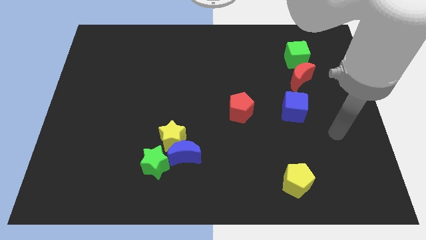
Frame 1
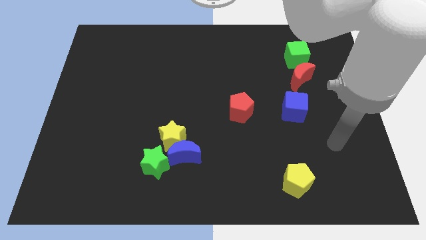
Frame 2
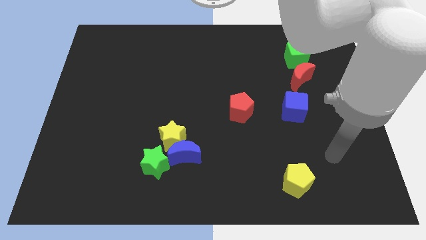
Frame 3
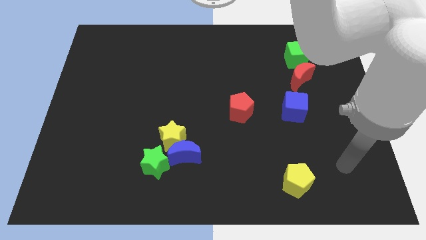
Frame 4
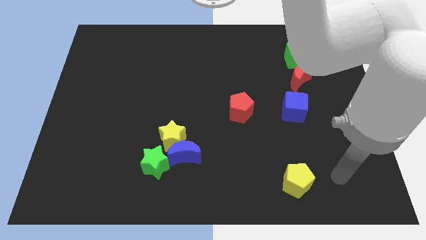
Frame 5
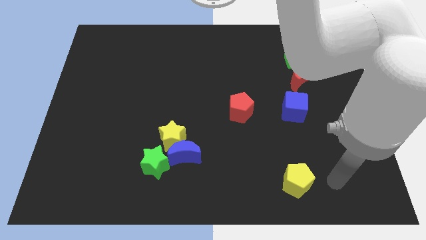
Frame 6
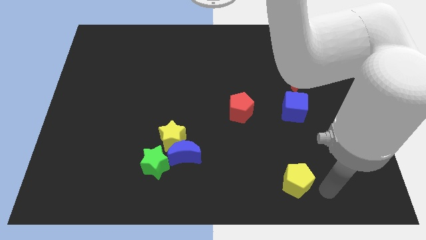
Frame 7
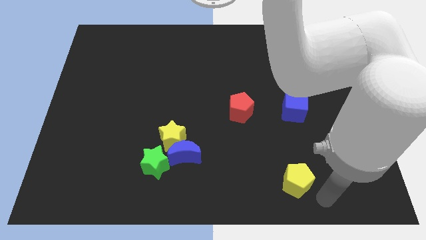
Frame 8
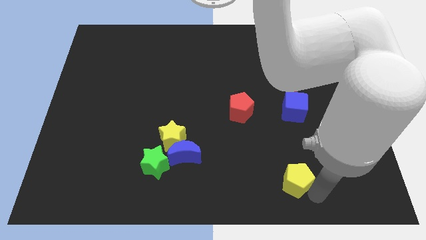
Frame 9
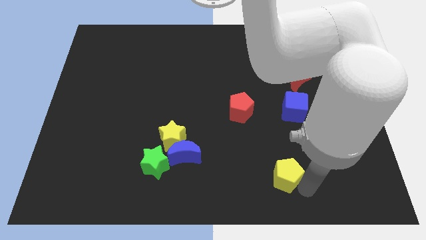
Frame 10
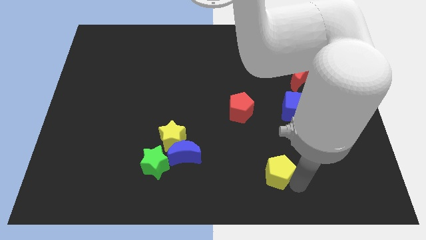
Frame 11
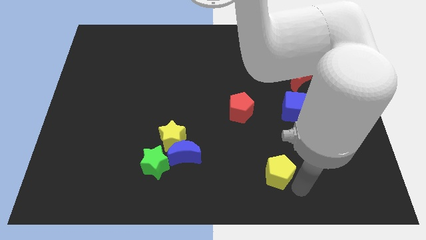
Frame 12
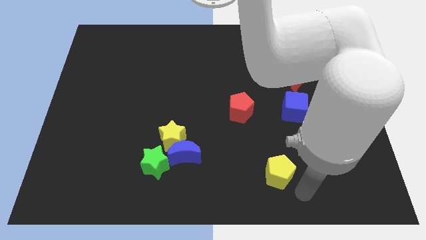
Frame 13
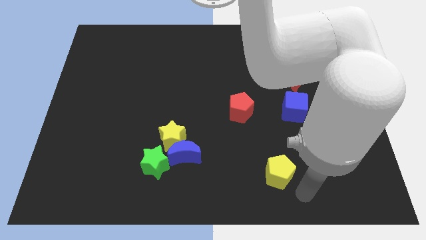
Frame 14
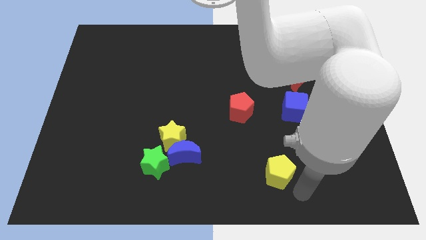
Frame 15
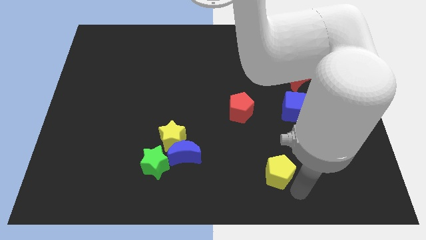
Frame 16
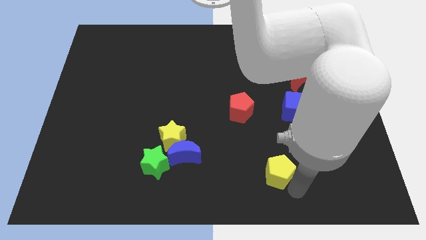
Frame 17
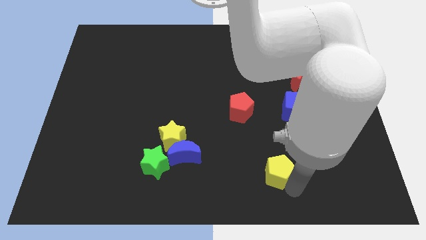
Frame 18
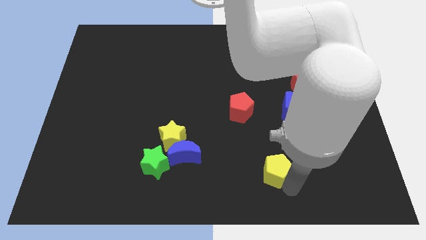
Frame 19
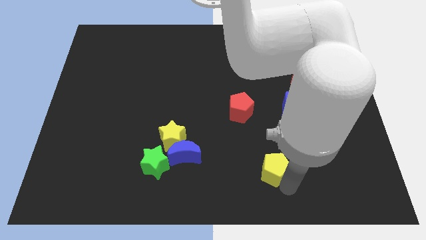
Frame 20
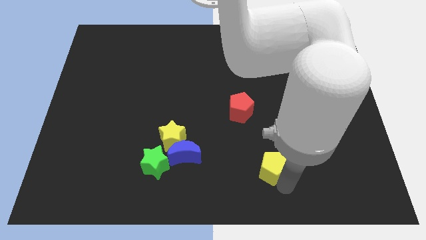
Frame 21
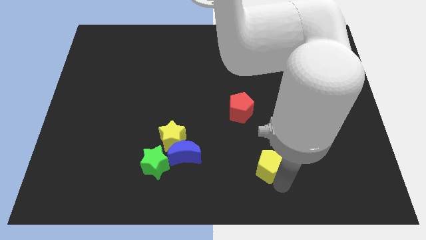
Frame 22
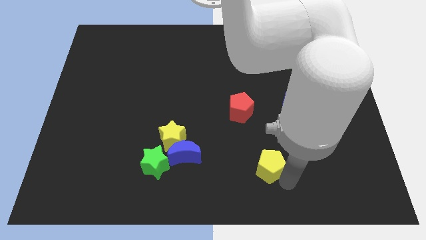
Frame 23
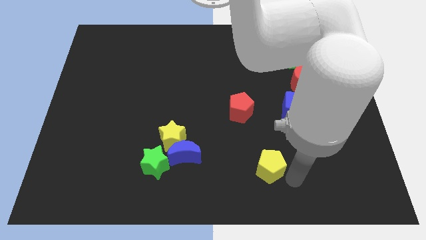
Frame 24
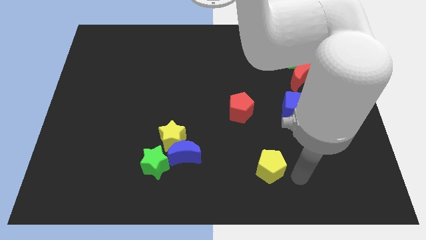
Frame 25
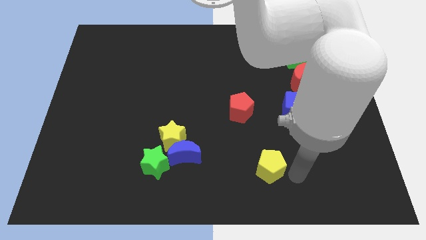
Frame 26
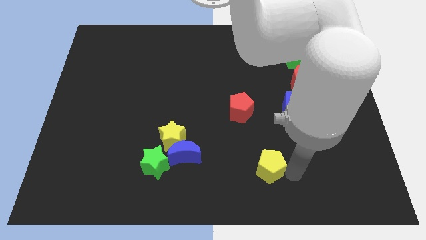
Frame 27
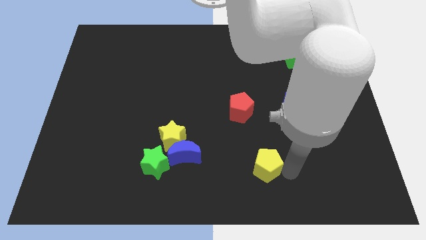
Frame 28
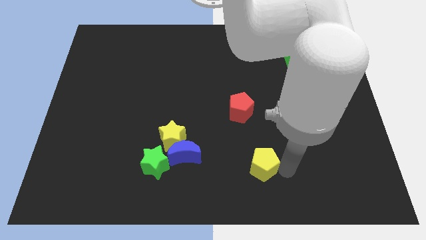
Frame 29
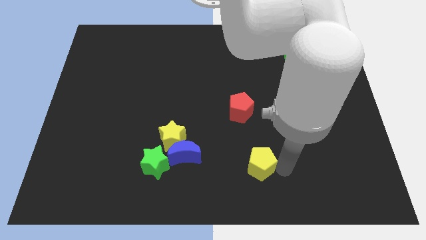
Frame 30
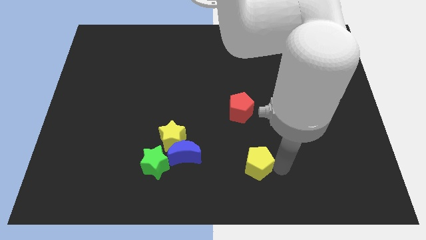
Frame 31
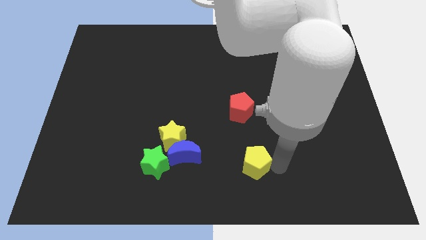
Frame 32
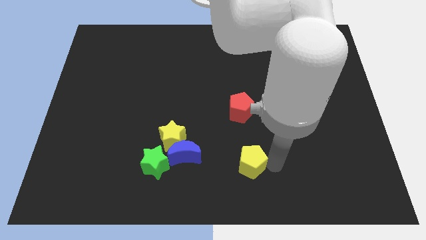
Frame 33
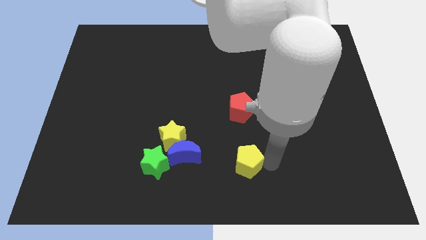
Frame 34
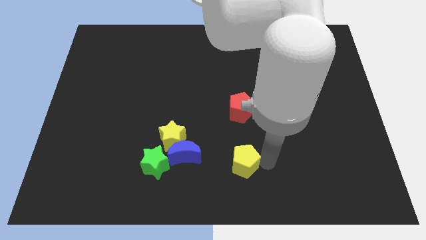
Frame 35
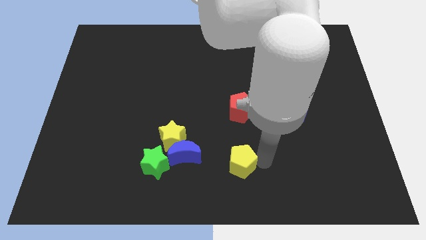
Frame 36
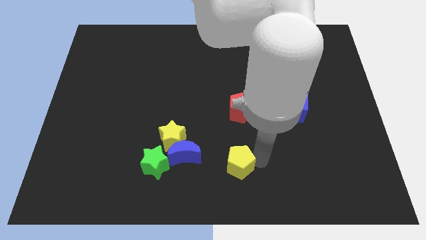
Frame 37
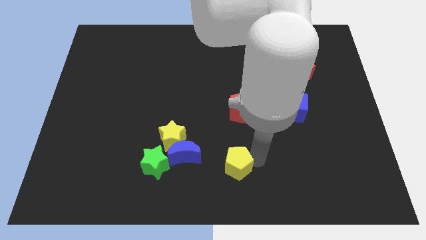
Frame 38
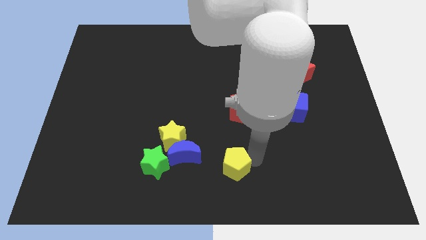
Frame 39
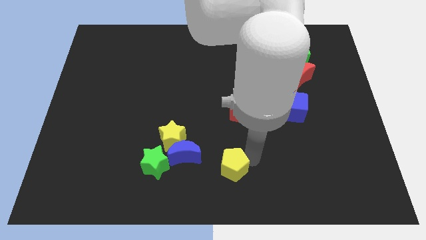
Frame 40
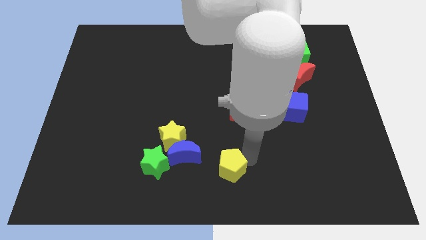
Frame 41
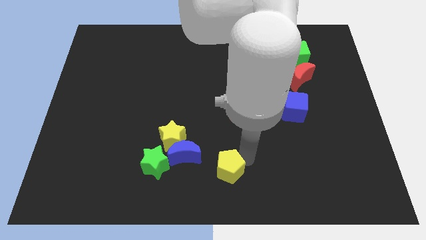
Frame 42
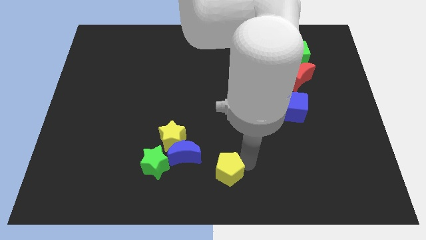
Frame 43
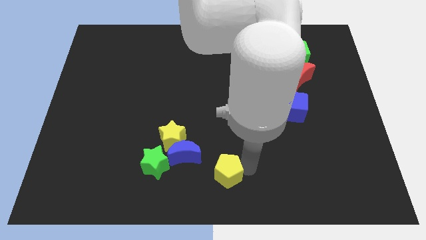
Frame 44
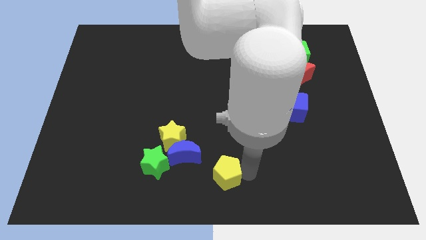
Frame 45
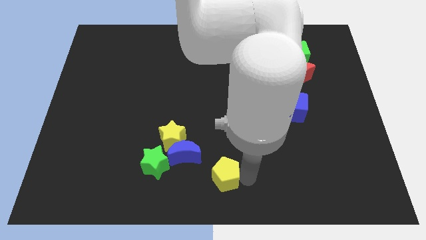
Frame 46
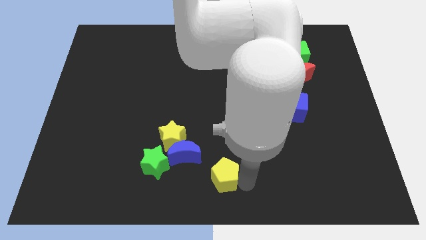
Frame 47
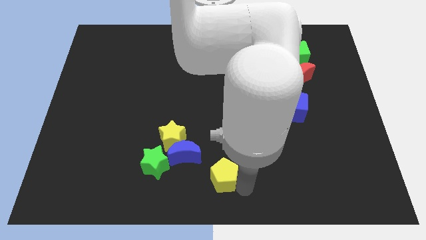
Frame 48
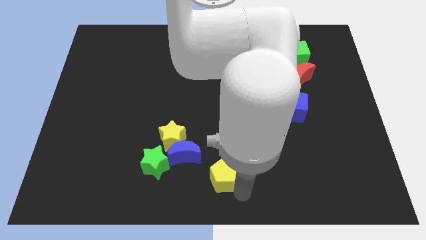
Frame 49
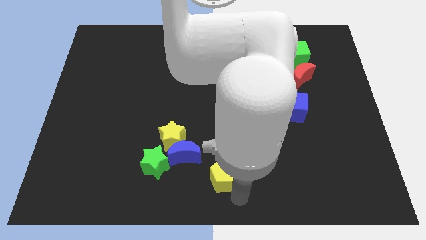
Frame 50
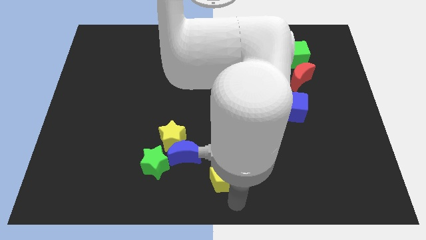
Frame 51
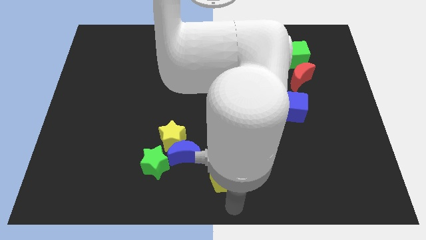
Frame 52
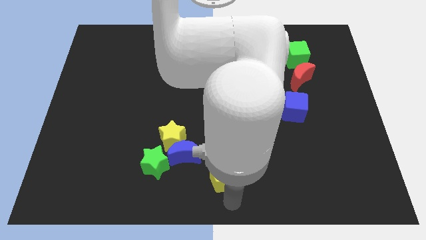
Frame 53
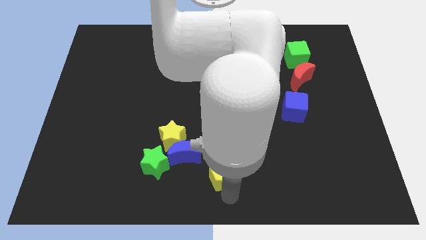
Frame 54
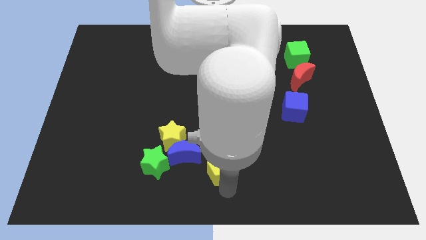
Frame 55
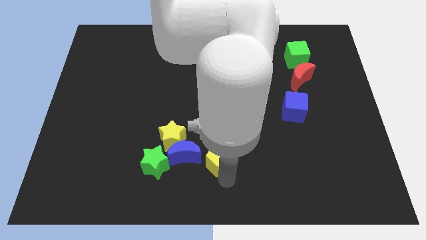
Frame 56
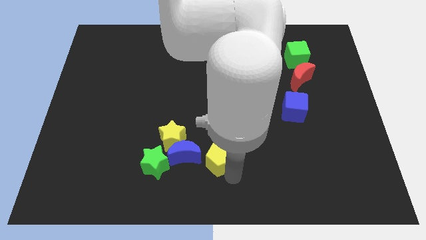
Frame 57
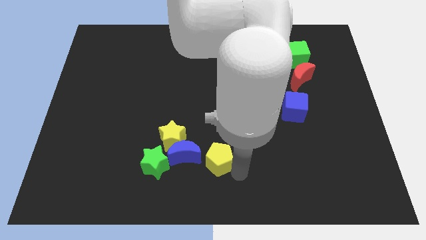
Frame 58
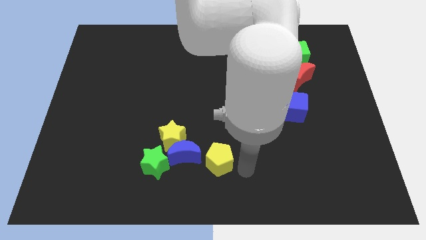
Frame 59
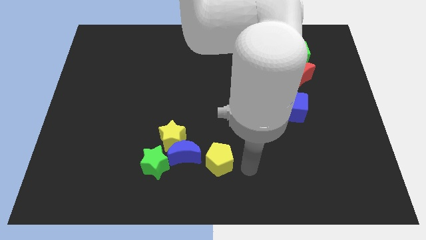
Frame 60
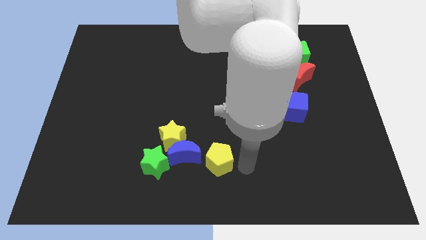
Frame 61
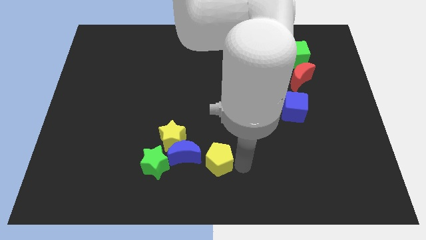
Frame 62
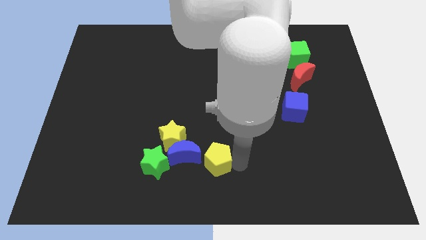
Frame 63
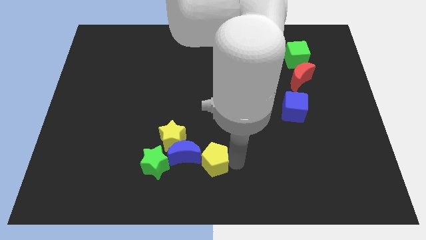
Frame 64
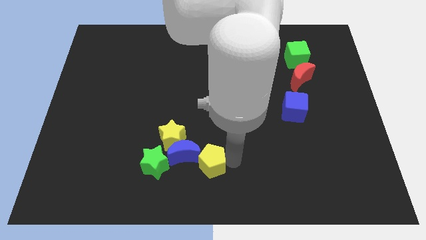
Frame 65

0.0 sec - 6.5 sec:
put the yellow pentagon to the blue moon

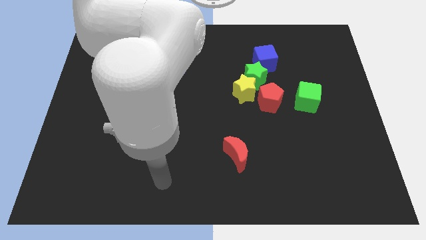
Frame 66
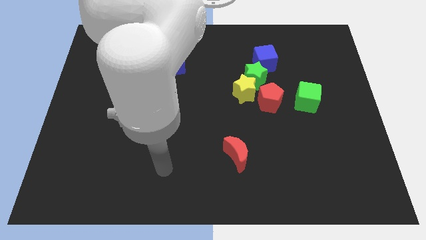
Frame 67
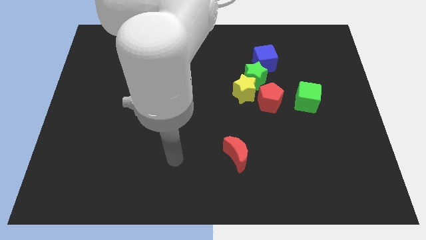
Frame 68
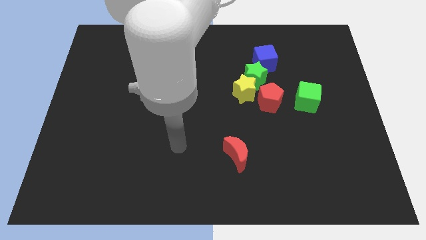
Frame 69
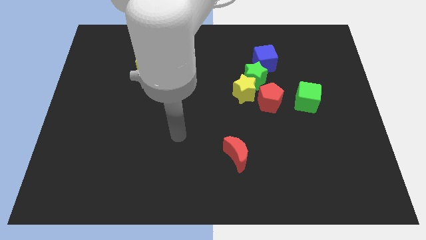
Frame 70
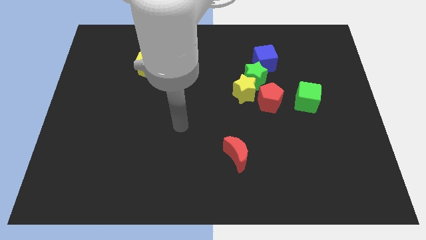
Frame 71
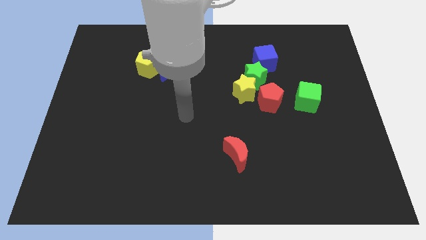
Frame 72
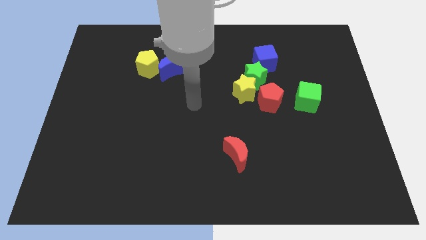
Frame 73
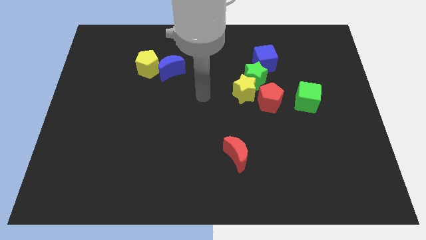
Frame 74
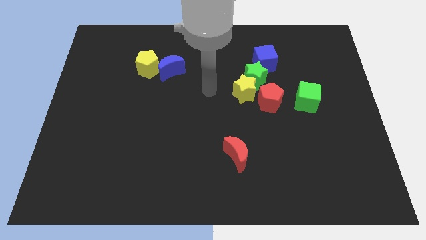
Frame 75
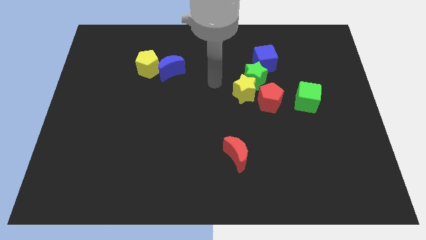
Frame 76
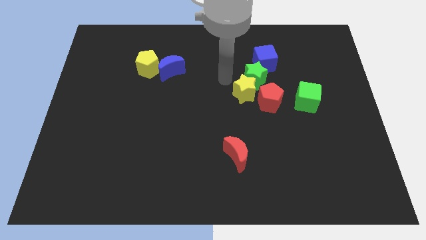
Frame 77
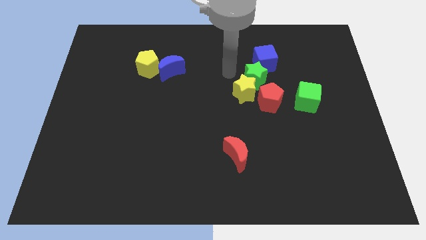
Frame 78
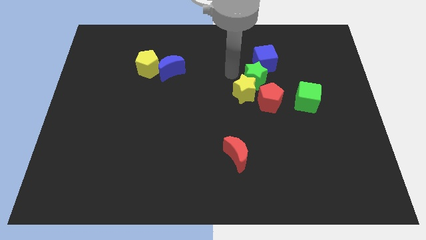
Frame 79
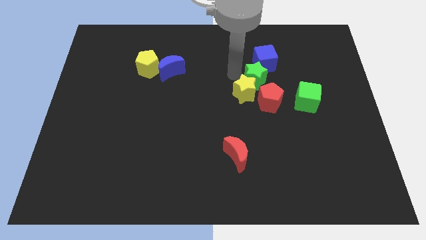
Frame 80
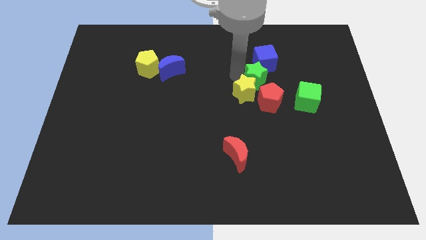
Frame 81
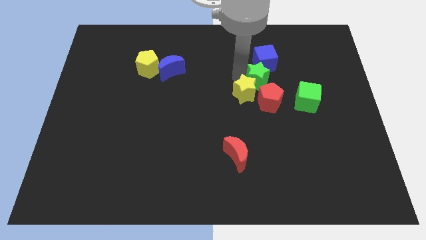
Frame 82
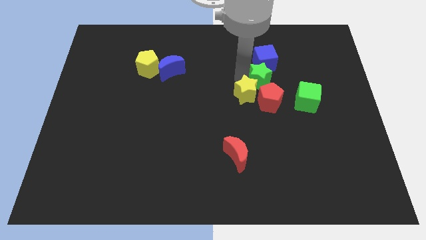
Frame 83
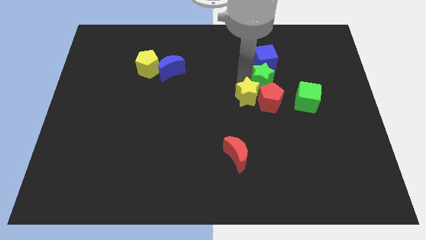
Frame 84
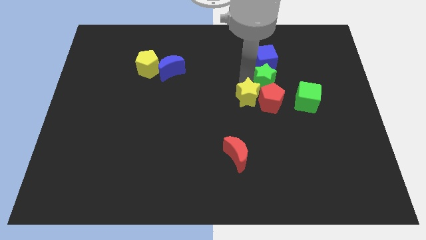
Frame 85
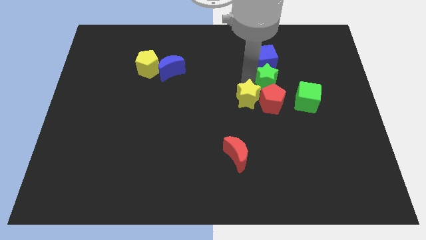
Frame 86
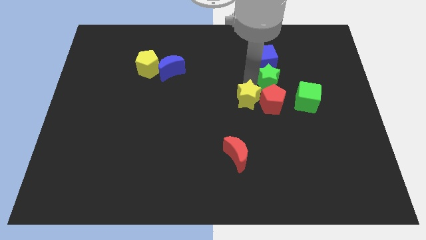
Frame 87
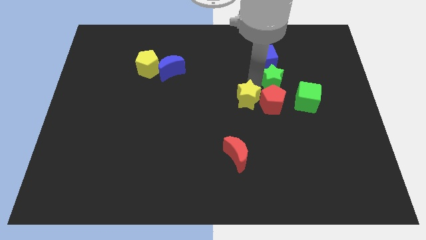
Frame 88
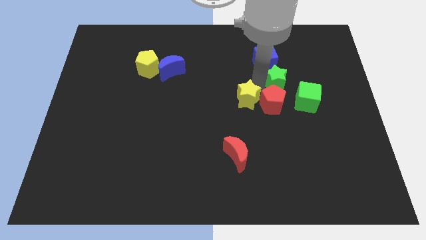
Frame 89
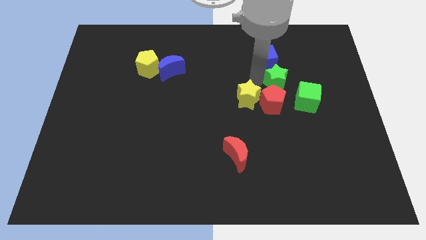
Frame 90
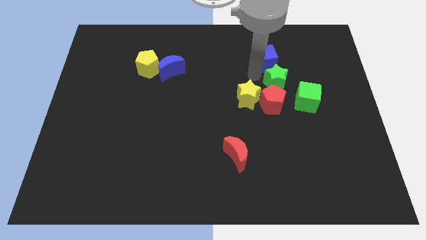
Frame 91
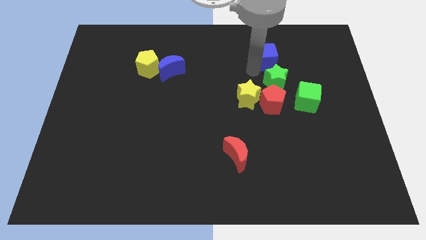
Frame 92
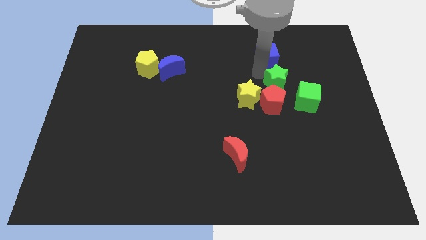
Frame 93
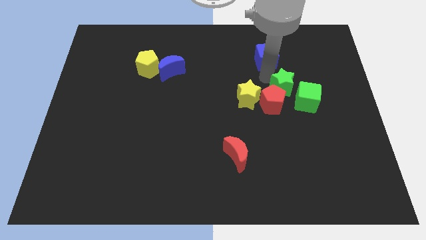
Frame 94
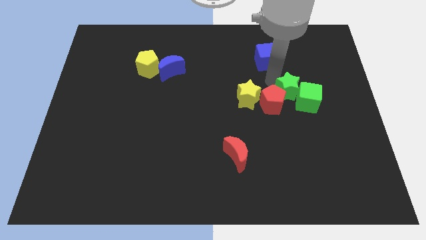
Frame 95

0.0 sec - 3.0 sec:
slide the green star to the green cube
